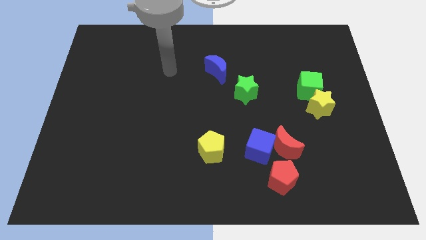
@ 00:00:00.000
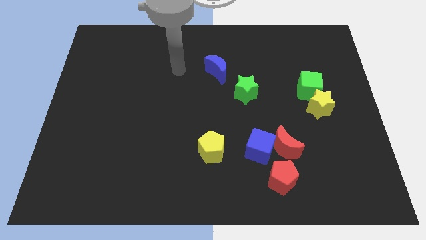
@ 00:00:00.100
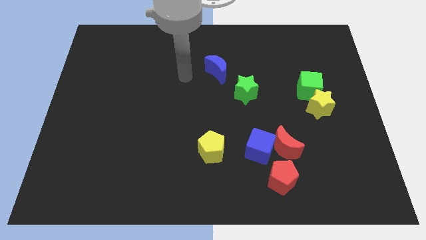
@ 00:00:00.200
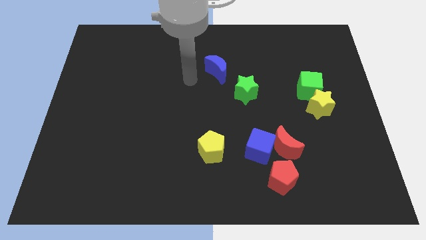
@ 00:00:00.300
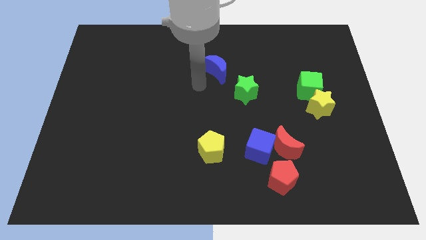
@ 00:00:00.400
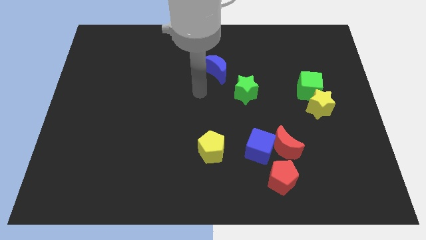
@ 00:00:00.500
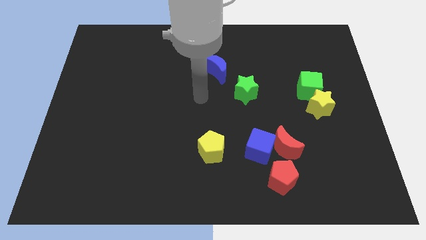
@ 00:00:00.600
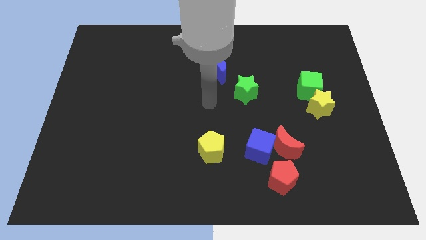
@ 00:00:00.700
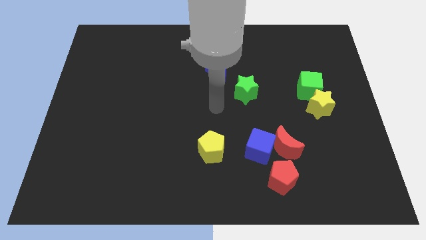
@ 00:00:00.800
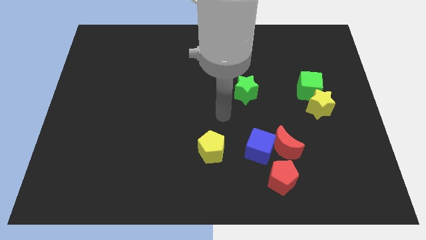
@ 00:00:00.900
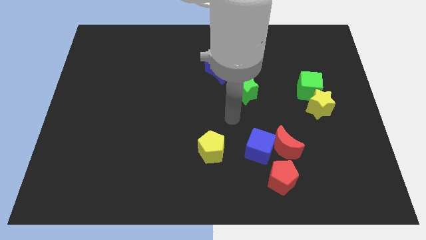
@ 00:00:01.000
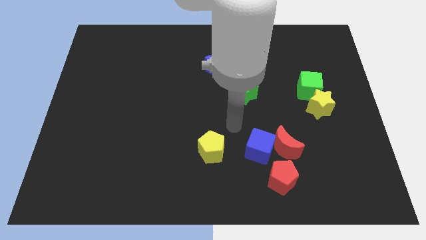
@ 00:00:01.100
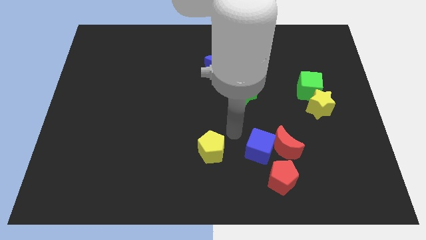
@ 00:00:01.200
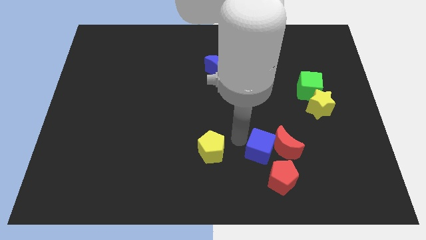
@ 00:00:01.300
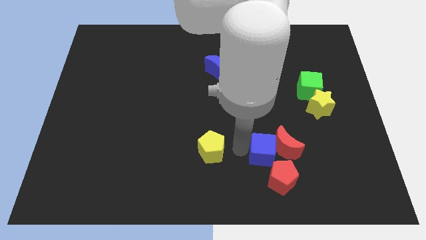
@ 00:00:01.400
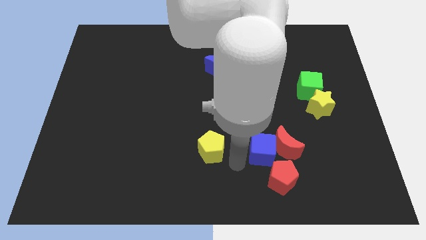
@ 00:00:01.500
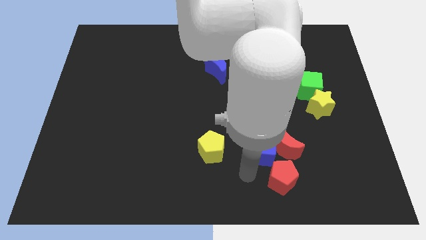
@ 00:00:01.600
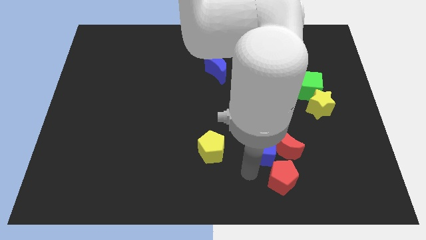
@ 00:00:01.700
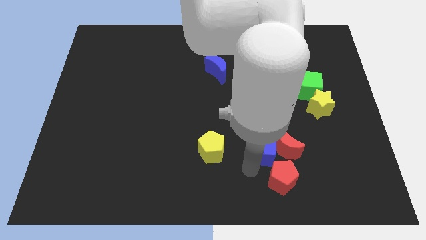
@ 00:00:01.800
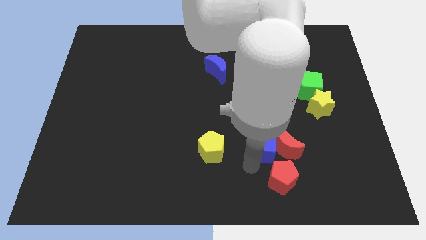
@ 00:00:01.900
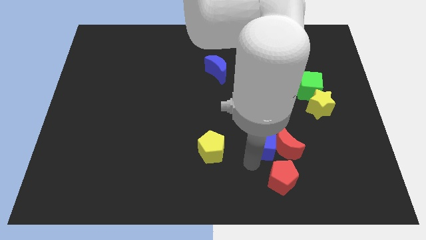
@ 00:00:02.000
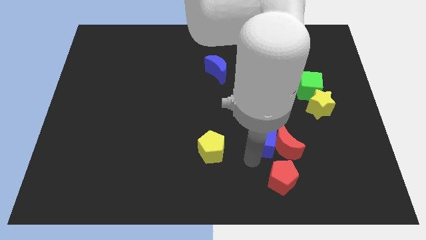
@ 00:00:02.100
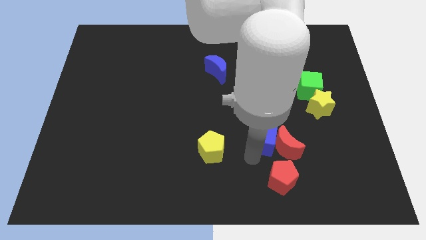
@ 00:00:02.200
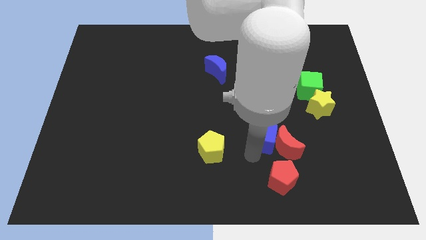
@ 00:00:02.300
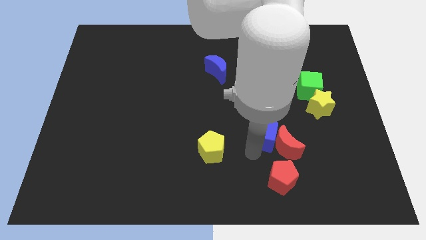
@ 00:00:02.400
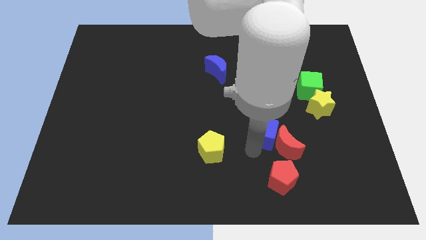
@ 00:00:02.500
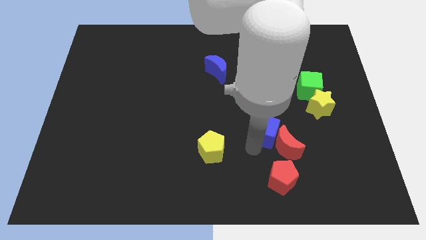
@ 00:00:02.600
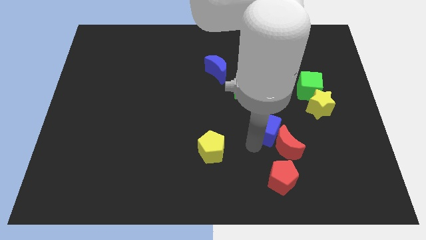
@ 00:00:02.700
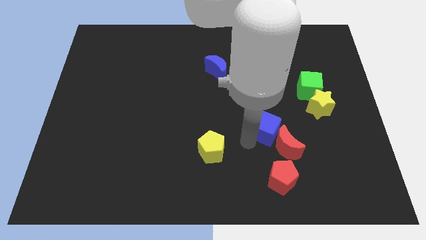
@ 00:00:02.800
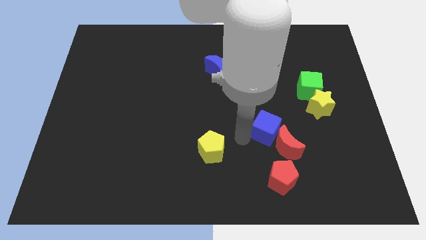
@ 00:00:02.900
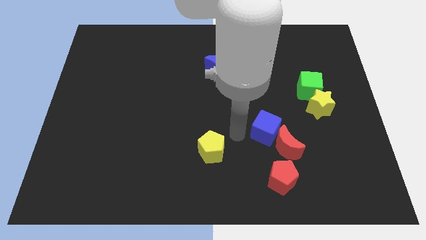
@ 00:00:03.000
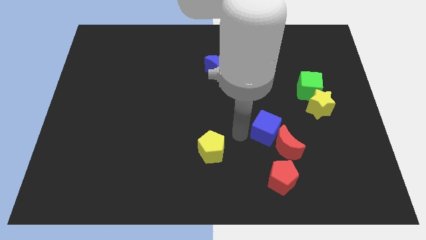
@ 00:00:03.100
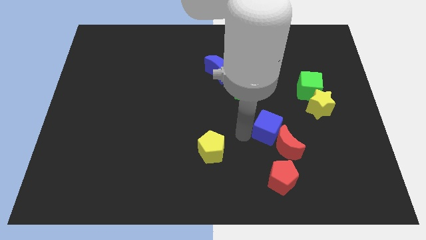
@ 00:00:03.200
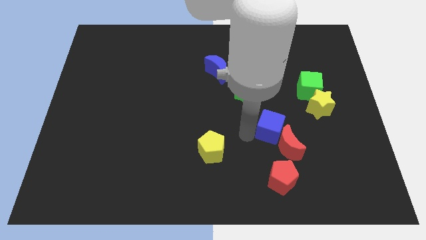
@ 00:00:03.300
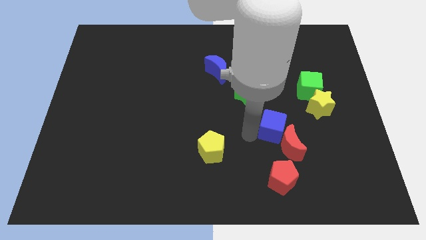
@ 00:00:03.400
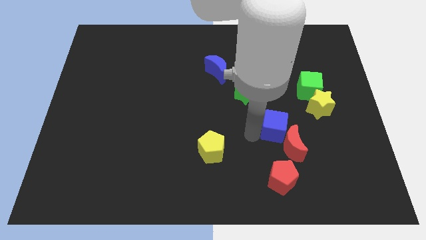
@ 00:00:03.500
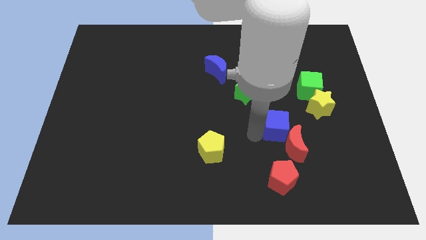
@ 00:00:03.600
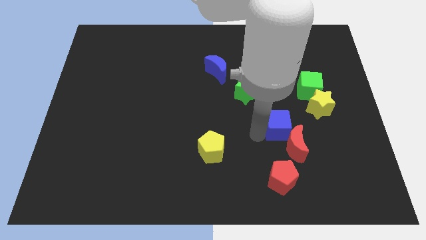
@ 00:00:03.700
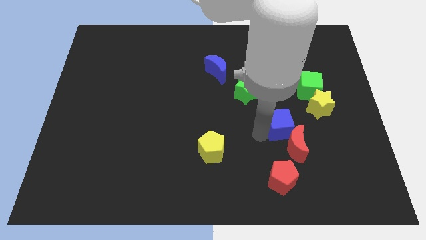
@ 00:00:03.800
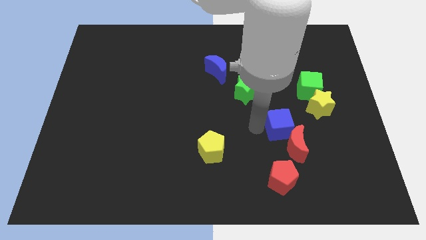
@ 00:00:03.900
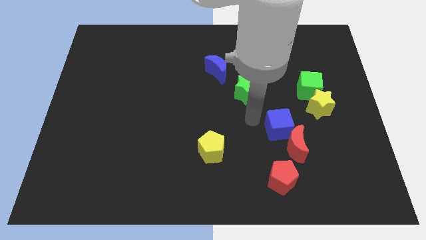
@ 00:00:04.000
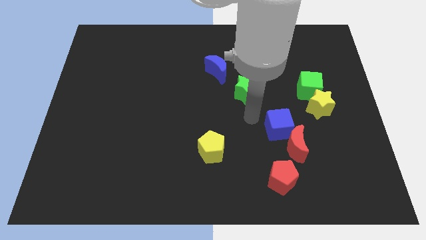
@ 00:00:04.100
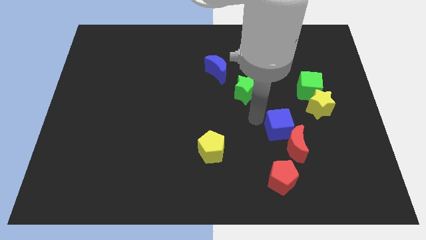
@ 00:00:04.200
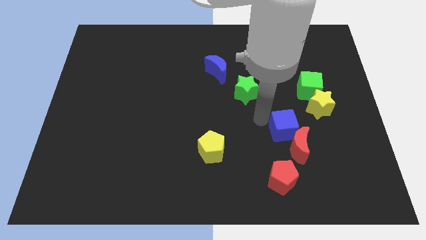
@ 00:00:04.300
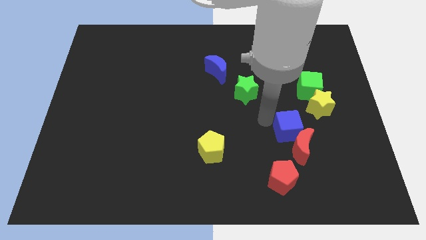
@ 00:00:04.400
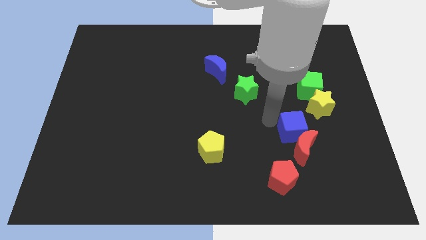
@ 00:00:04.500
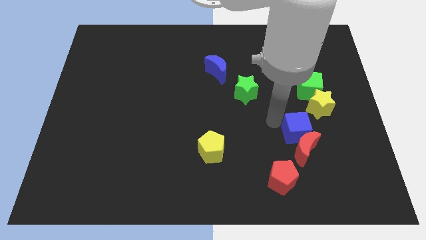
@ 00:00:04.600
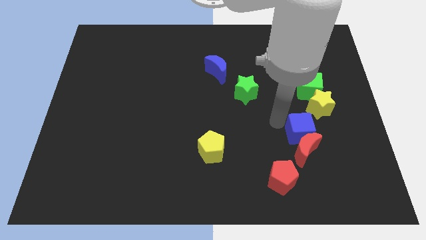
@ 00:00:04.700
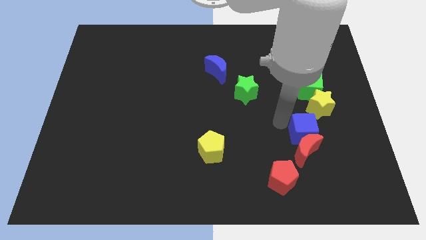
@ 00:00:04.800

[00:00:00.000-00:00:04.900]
move the blue cube to the bottom of the yellow star

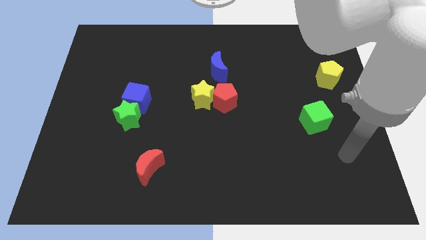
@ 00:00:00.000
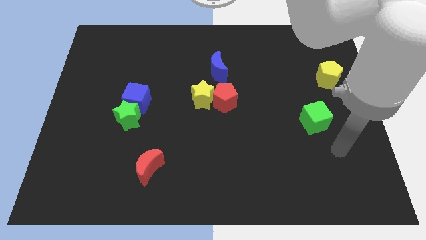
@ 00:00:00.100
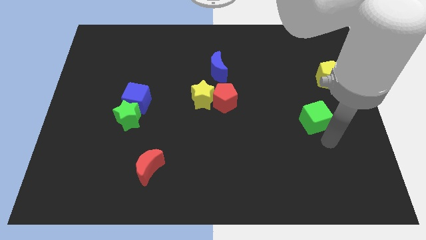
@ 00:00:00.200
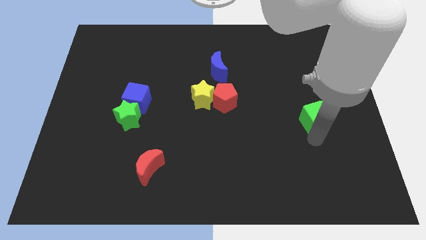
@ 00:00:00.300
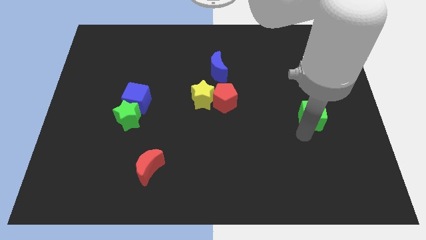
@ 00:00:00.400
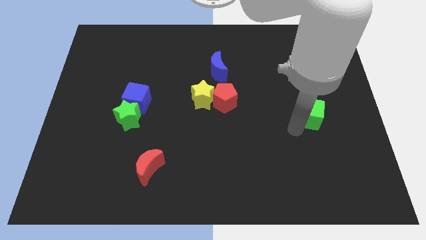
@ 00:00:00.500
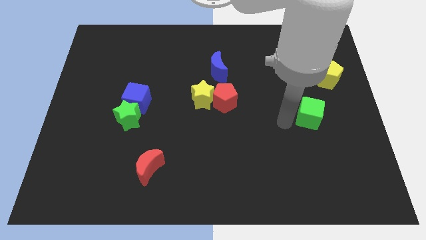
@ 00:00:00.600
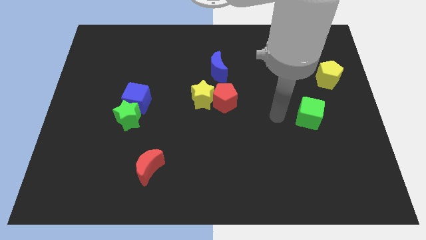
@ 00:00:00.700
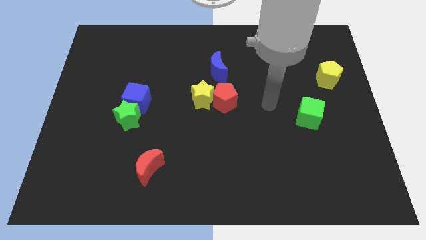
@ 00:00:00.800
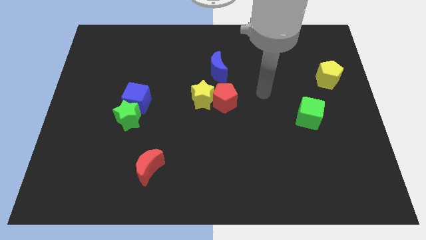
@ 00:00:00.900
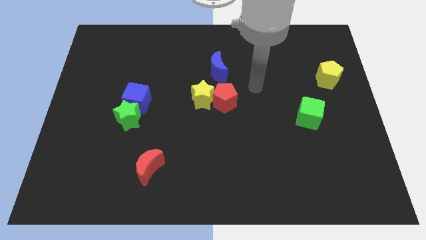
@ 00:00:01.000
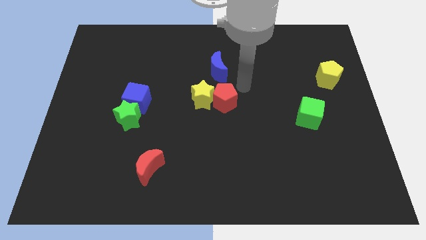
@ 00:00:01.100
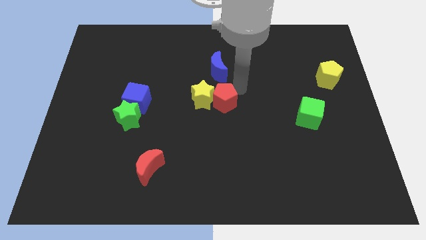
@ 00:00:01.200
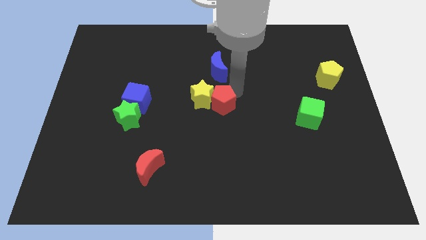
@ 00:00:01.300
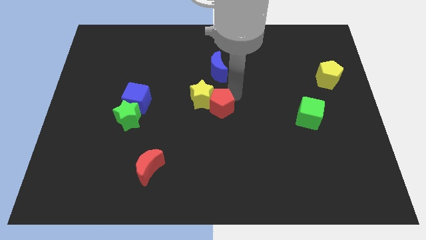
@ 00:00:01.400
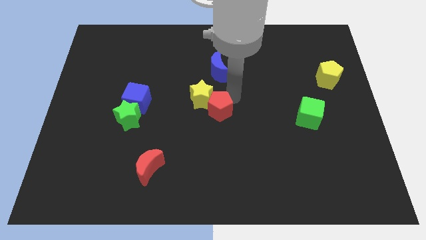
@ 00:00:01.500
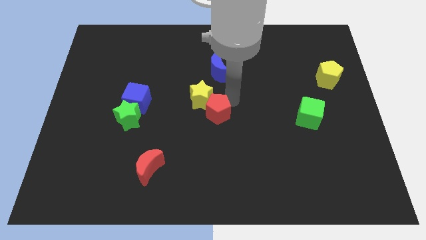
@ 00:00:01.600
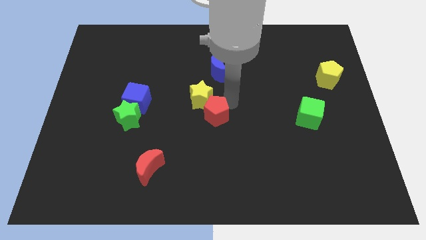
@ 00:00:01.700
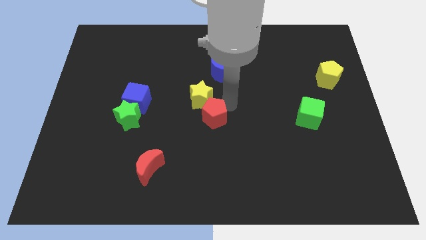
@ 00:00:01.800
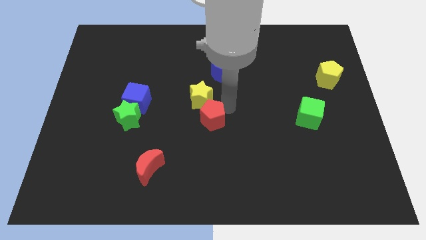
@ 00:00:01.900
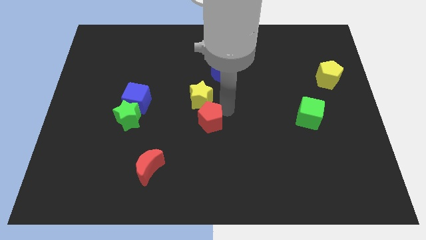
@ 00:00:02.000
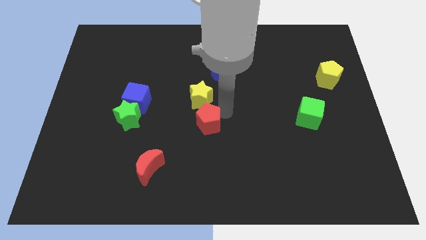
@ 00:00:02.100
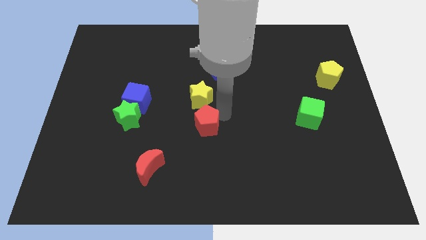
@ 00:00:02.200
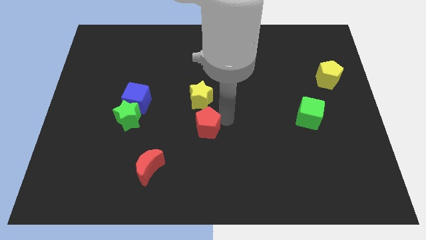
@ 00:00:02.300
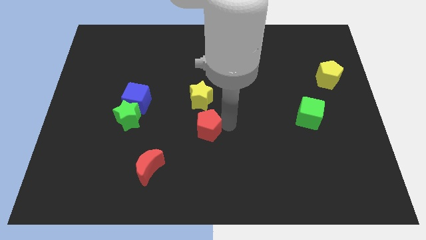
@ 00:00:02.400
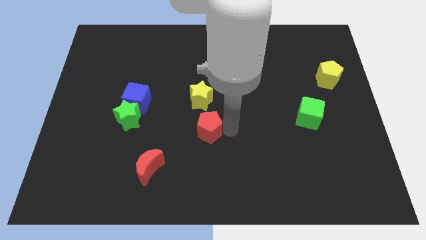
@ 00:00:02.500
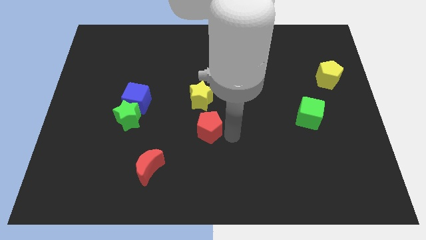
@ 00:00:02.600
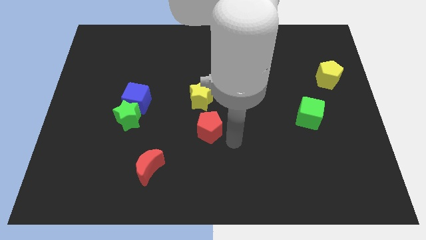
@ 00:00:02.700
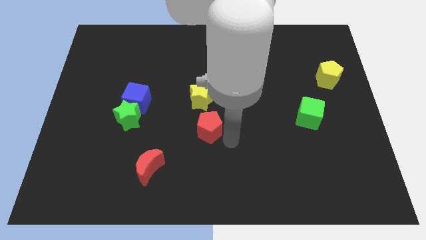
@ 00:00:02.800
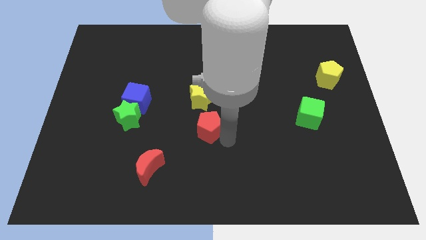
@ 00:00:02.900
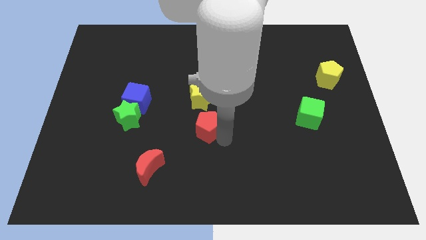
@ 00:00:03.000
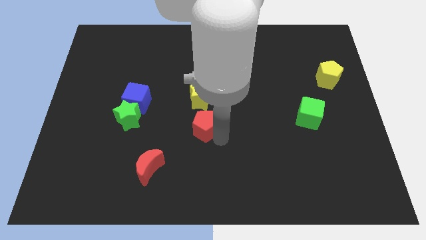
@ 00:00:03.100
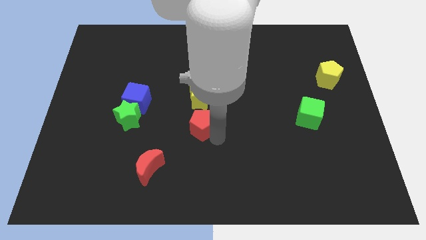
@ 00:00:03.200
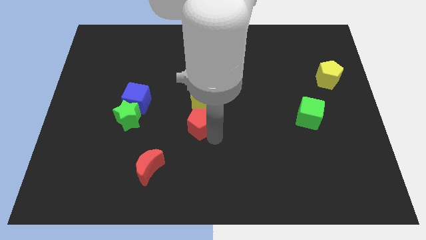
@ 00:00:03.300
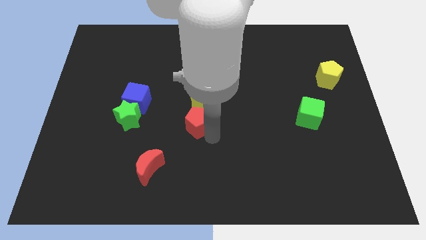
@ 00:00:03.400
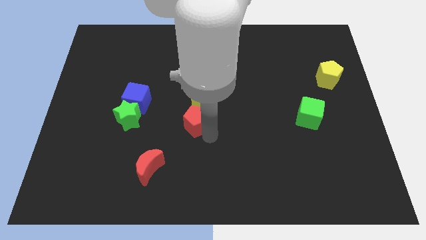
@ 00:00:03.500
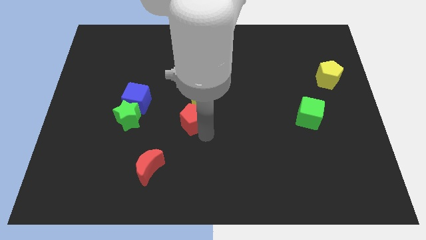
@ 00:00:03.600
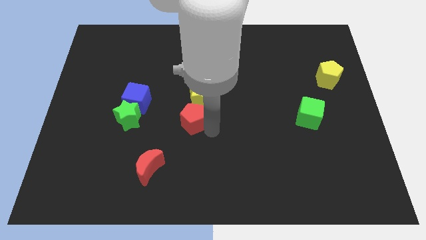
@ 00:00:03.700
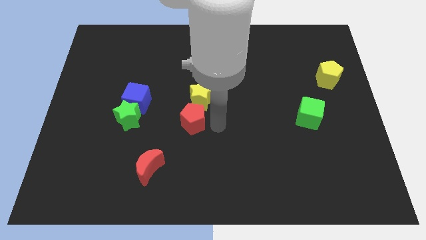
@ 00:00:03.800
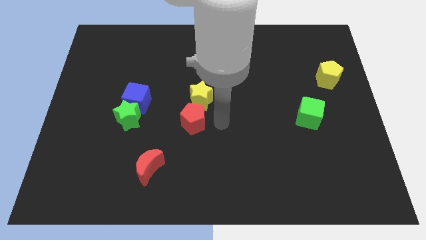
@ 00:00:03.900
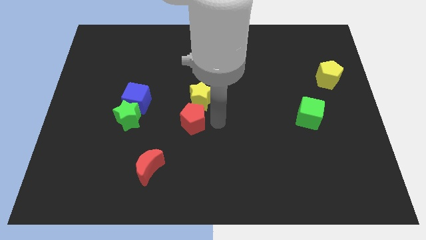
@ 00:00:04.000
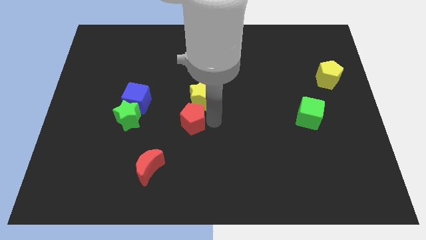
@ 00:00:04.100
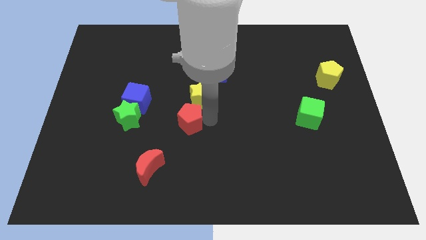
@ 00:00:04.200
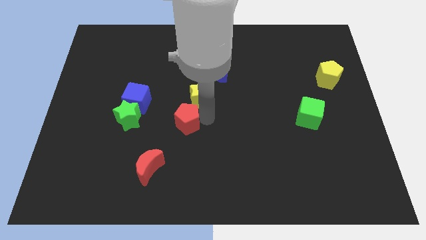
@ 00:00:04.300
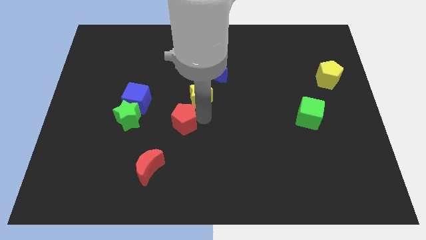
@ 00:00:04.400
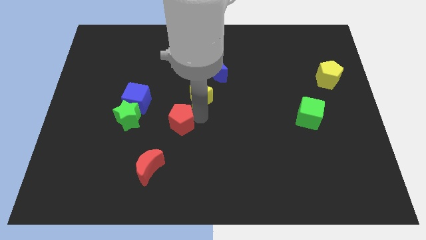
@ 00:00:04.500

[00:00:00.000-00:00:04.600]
push the red pentagon to the bottom right of the blue cube
